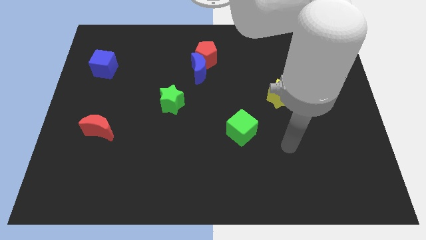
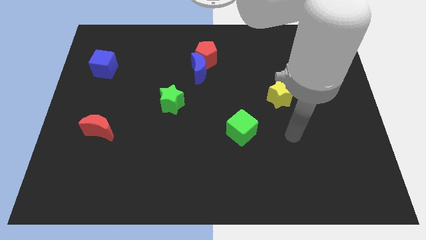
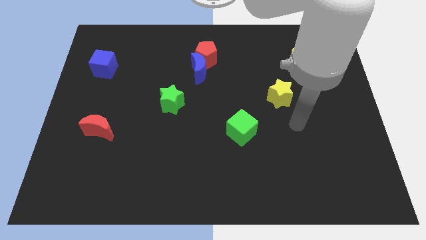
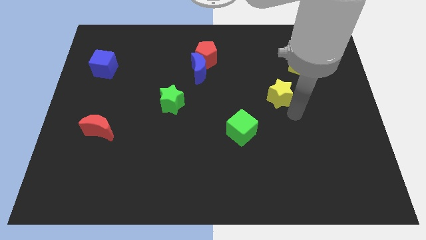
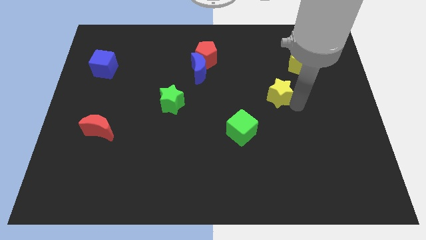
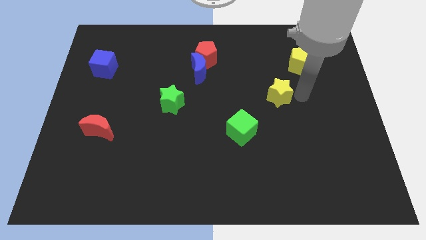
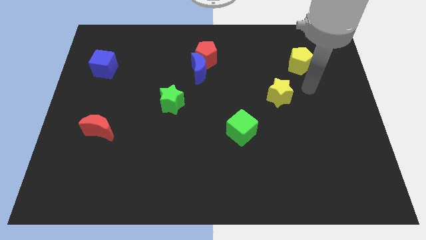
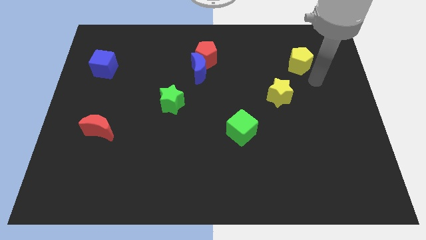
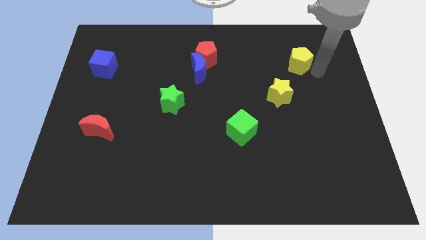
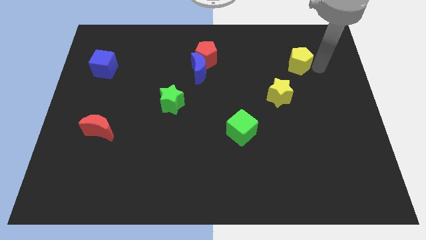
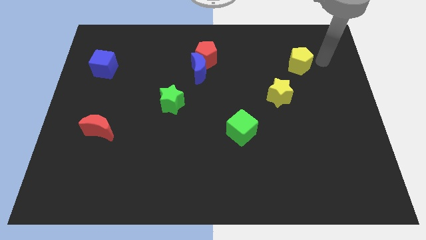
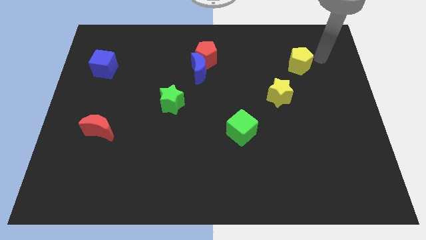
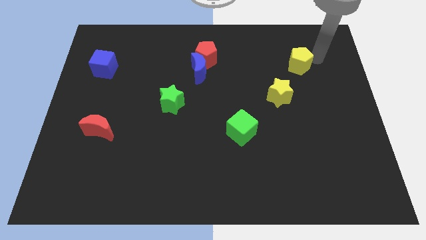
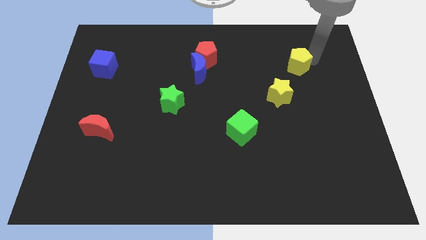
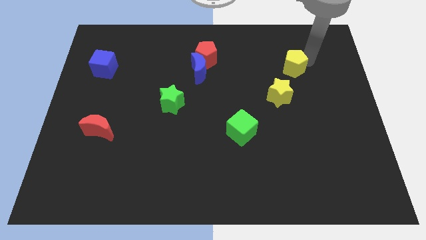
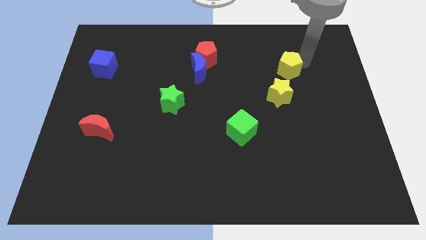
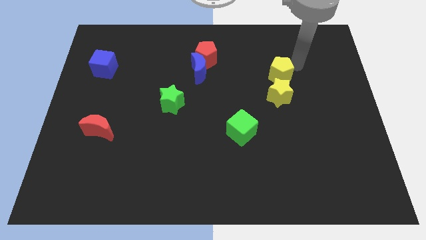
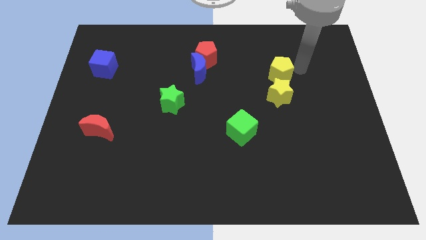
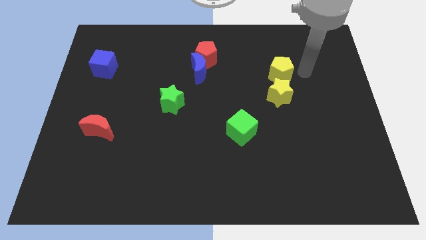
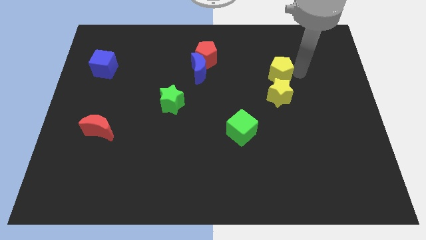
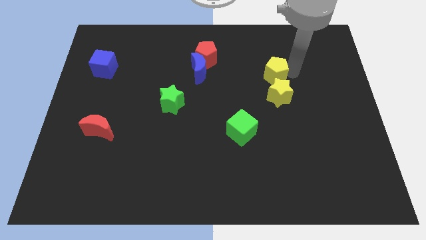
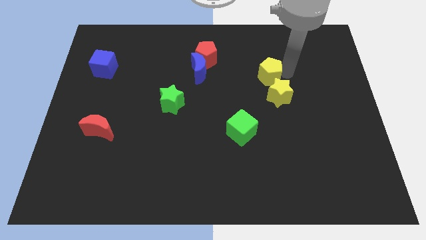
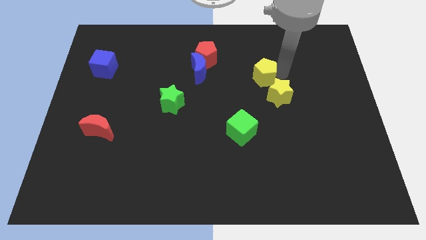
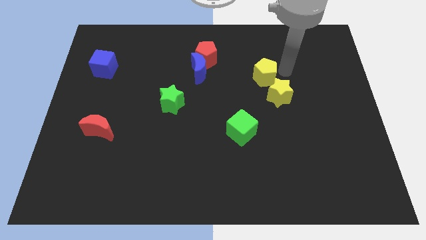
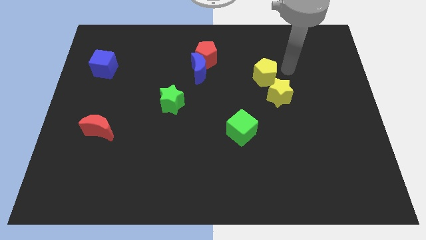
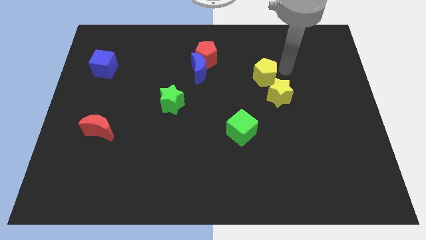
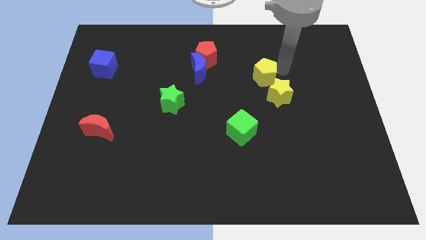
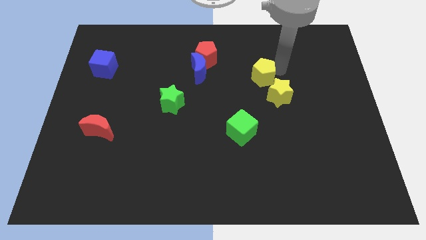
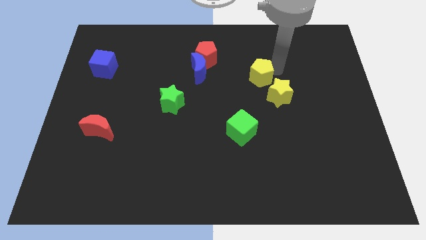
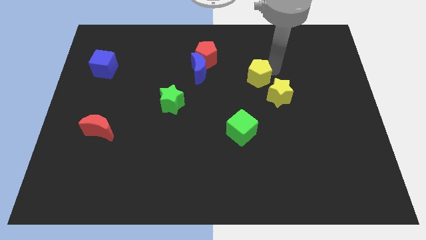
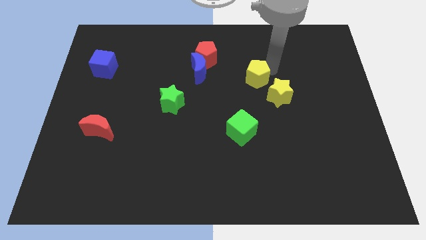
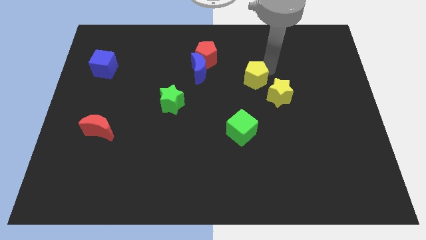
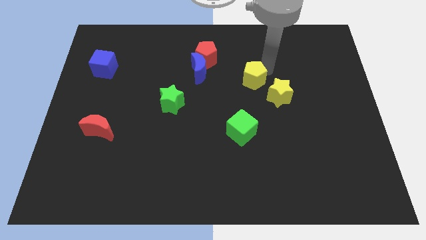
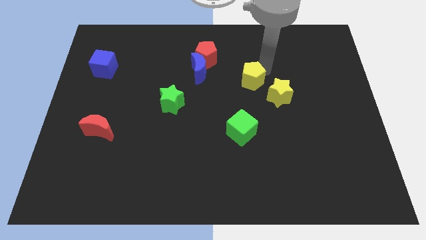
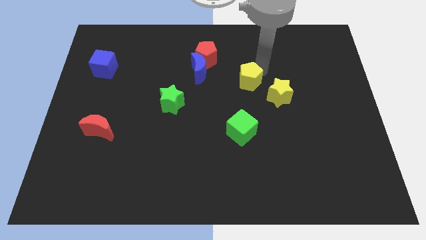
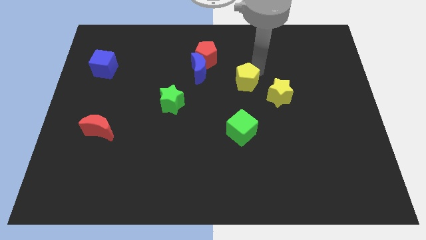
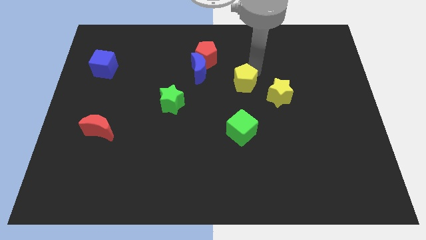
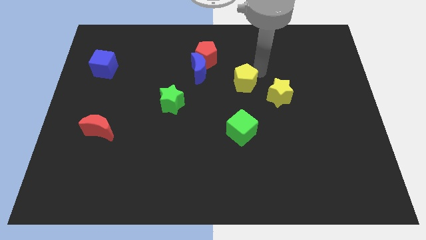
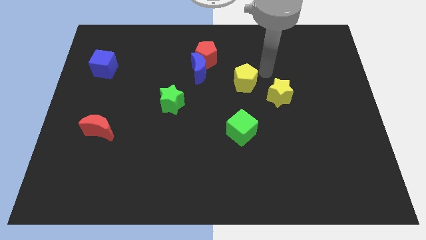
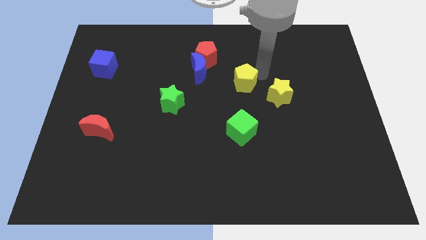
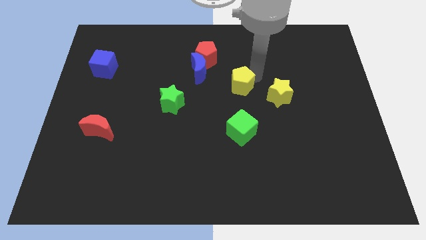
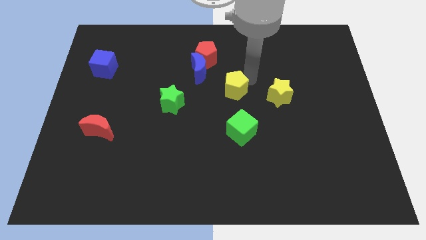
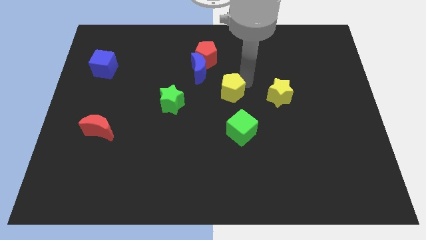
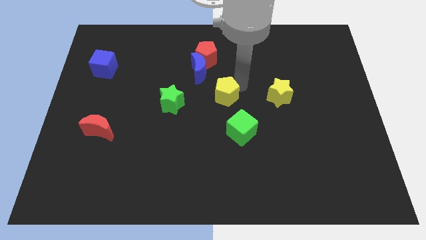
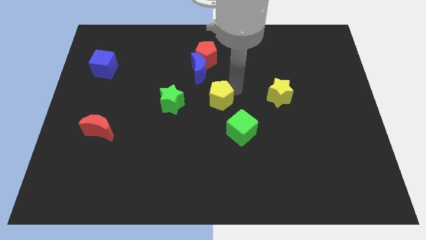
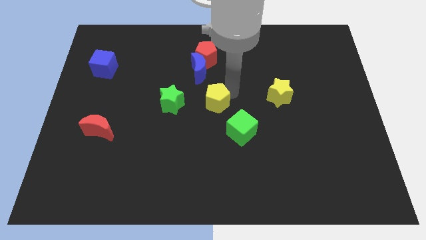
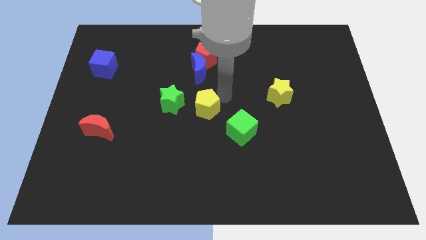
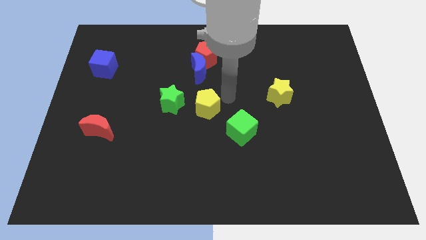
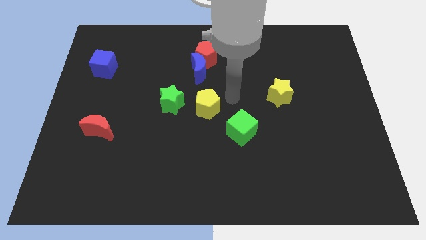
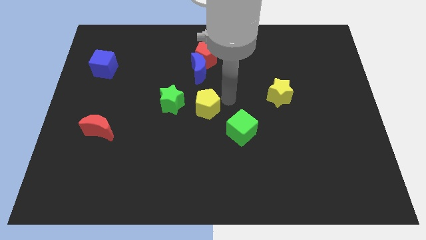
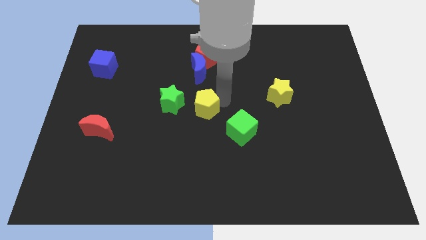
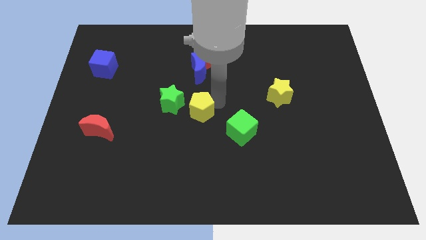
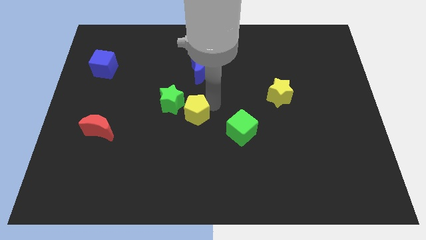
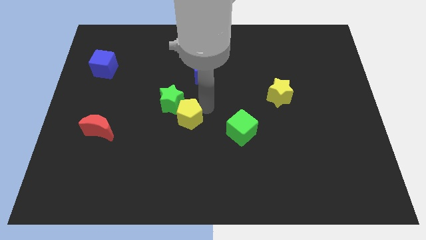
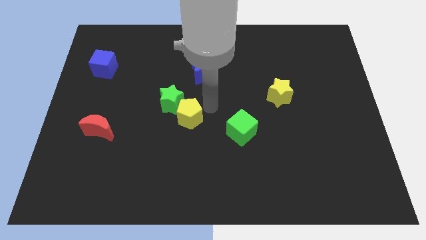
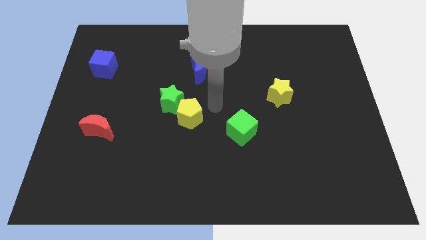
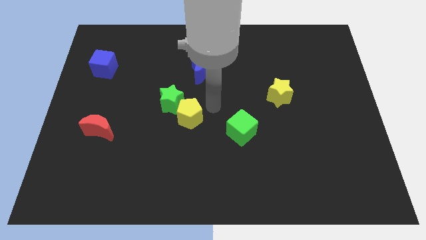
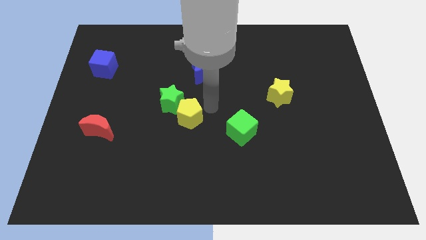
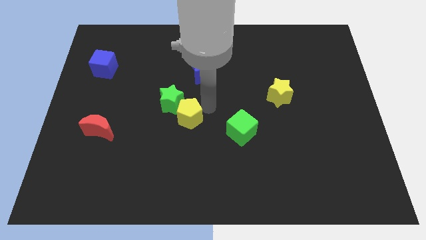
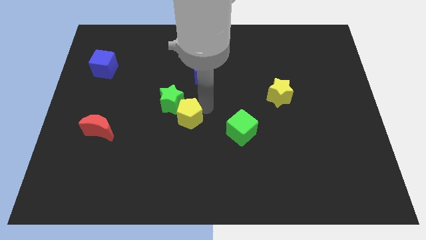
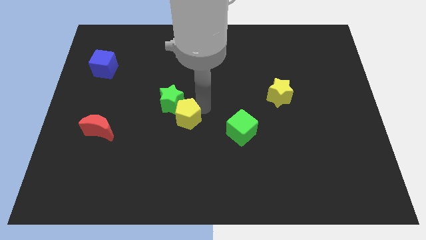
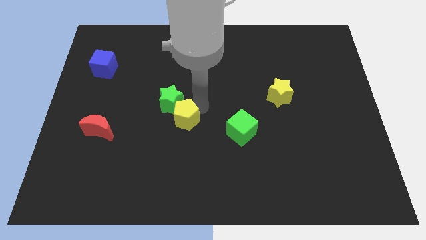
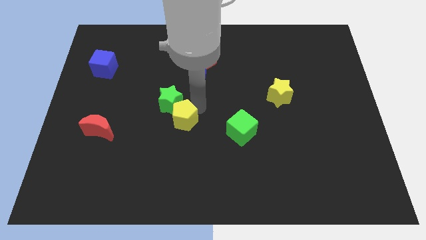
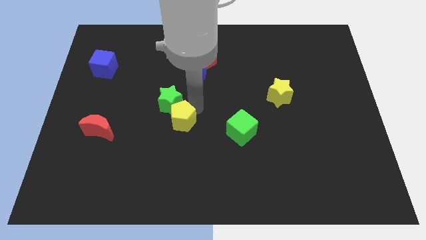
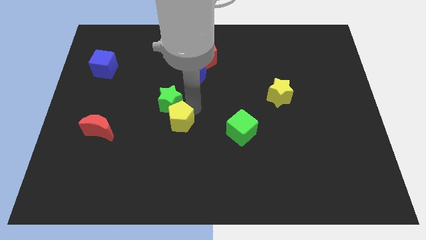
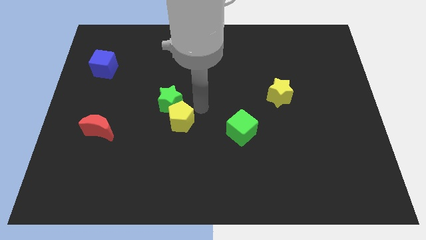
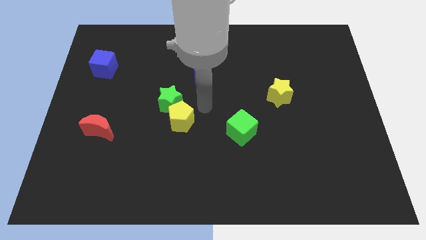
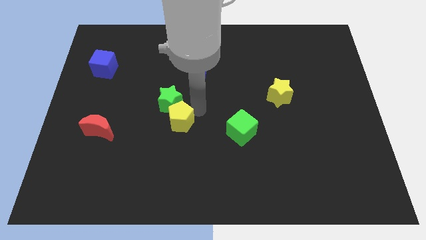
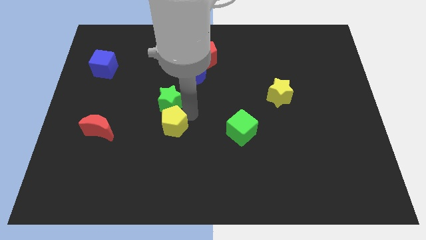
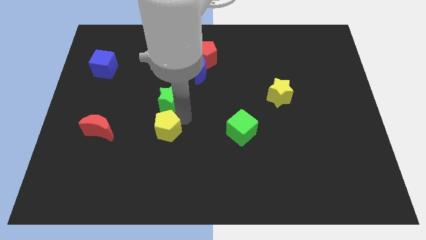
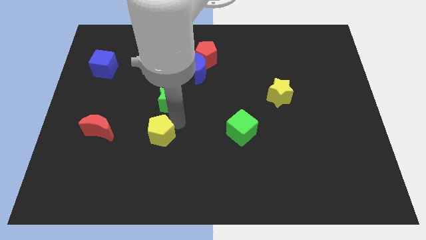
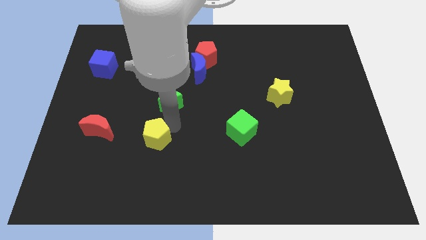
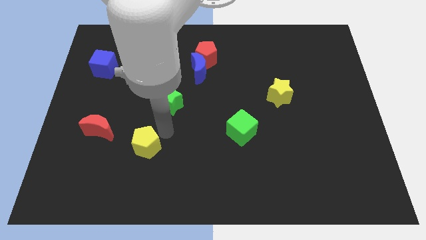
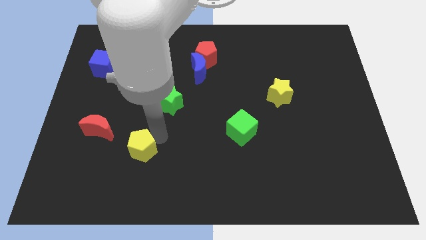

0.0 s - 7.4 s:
push the yellow pentagon to the bottom right side of the red moon
